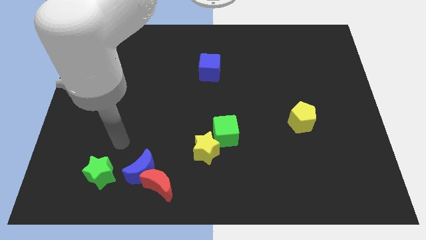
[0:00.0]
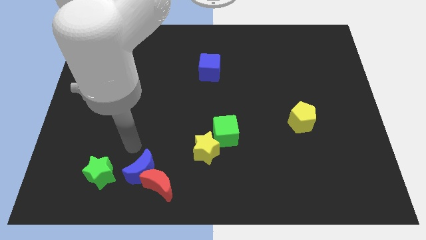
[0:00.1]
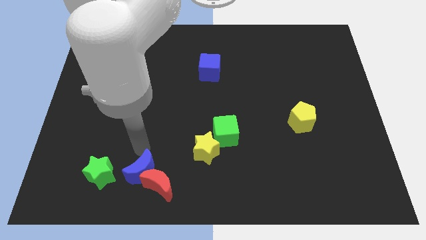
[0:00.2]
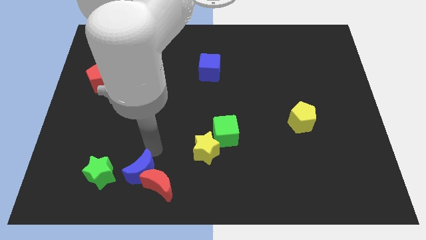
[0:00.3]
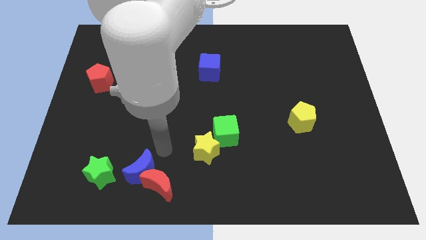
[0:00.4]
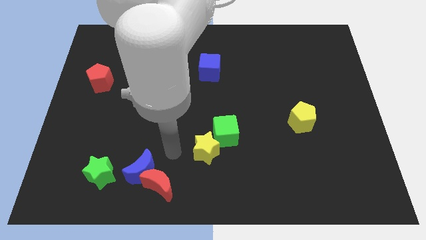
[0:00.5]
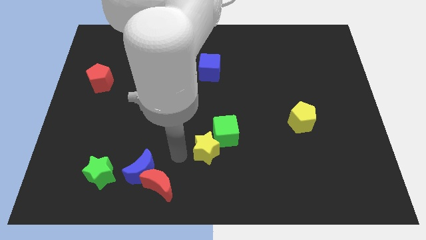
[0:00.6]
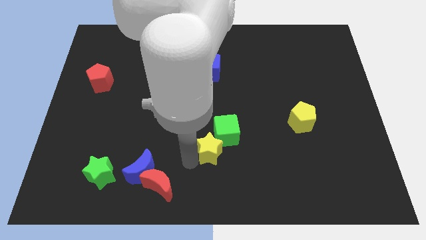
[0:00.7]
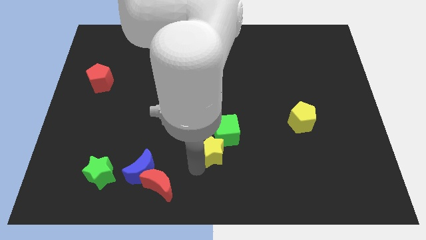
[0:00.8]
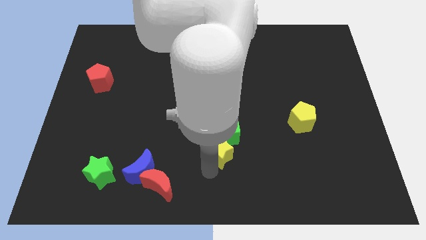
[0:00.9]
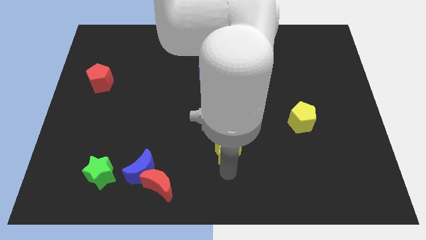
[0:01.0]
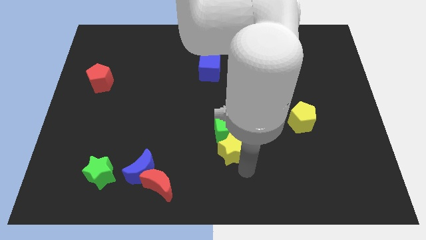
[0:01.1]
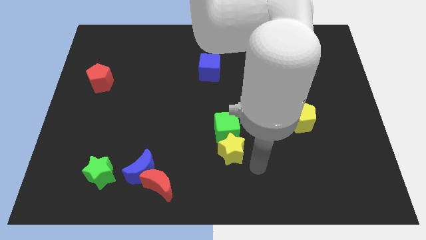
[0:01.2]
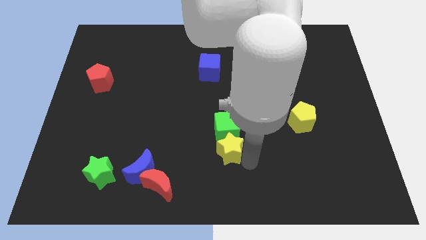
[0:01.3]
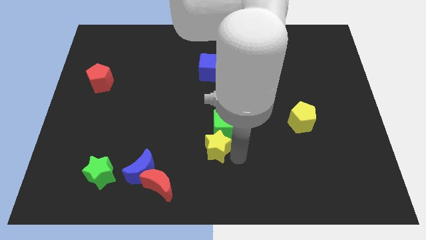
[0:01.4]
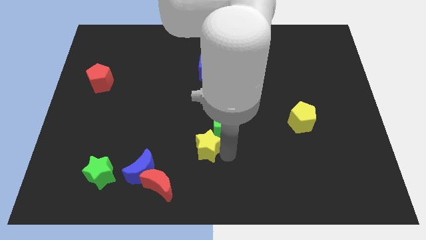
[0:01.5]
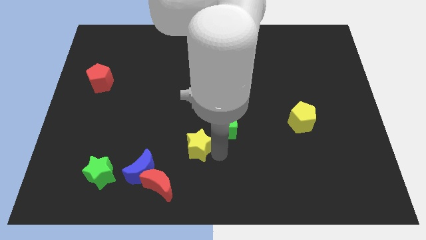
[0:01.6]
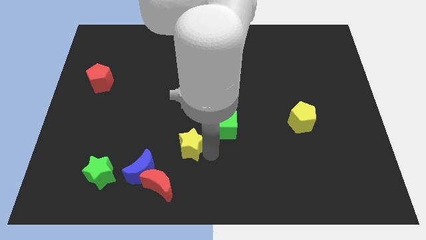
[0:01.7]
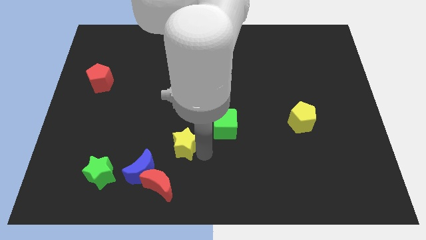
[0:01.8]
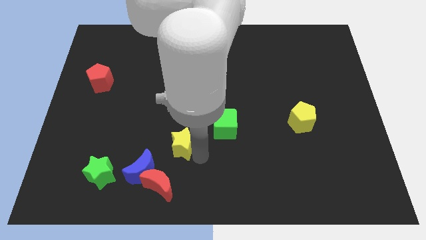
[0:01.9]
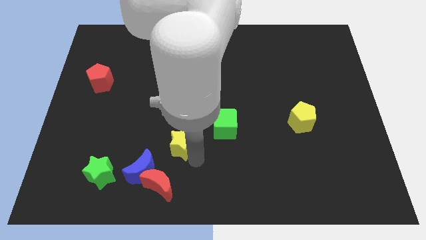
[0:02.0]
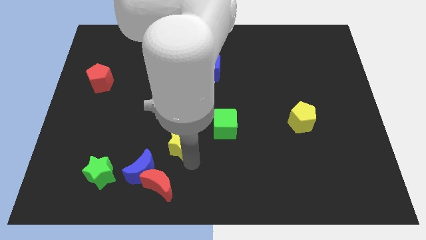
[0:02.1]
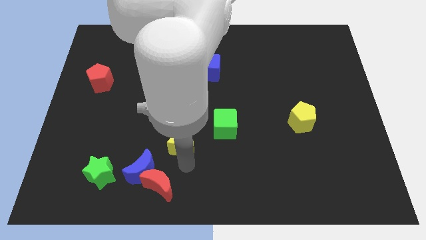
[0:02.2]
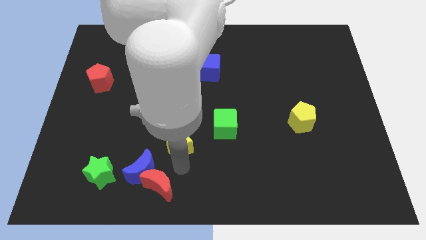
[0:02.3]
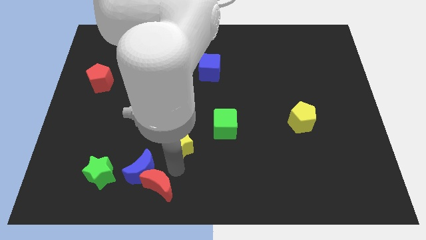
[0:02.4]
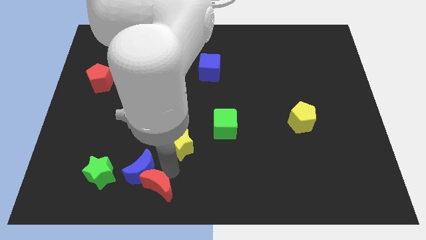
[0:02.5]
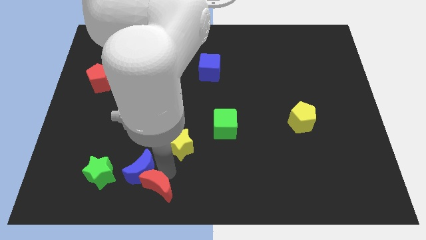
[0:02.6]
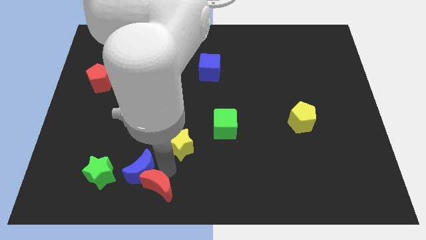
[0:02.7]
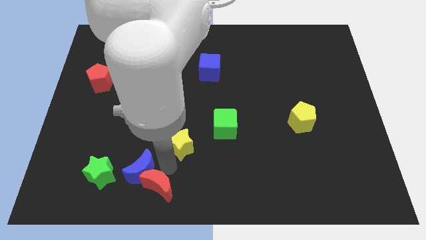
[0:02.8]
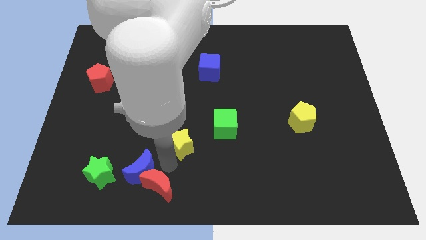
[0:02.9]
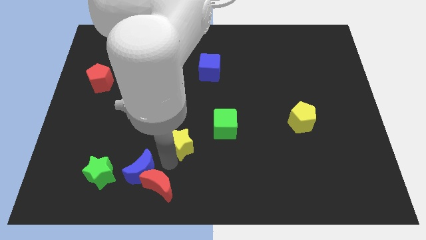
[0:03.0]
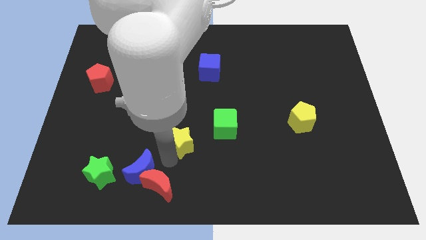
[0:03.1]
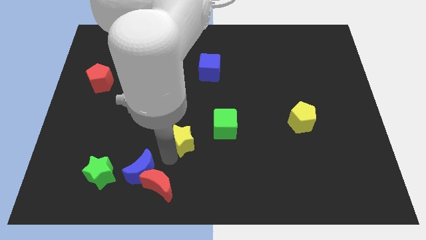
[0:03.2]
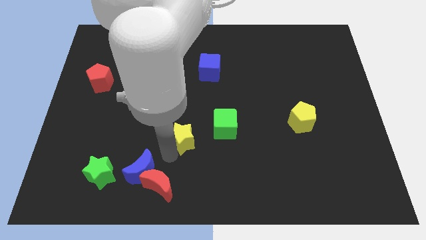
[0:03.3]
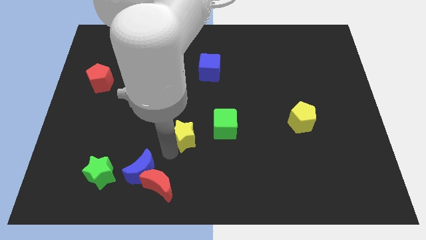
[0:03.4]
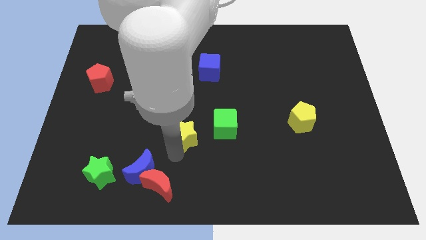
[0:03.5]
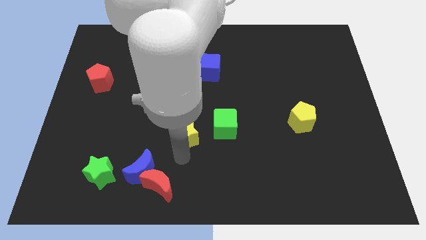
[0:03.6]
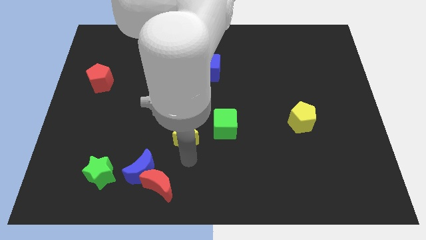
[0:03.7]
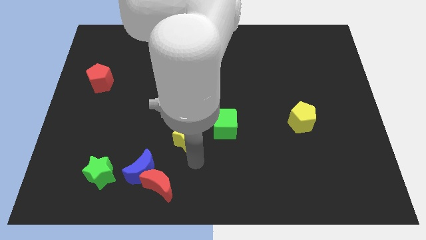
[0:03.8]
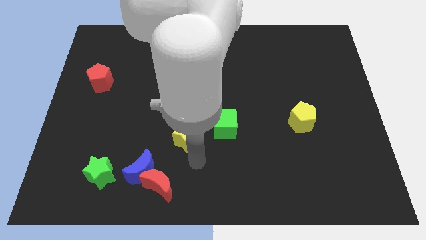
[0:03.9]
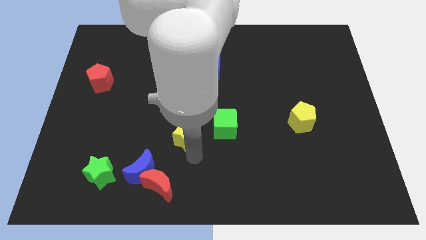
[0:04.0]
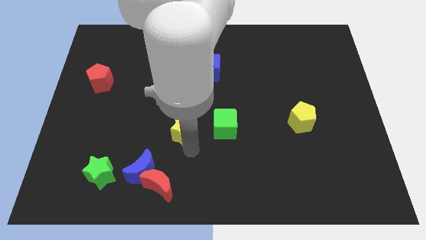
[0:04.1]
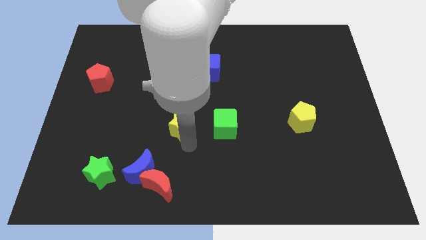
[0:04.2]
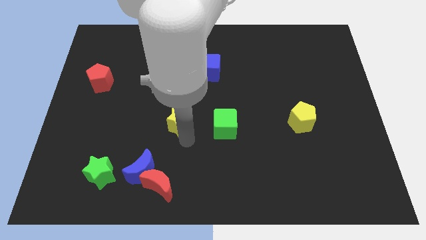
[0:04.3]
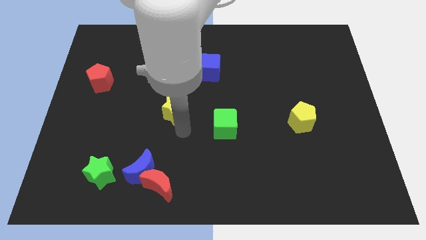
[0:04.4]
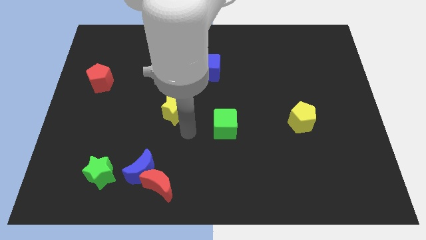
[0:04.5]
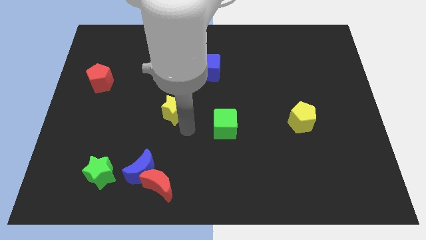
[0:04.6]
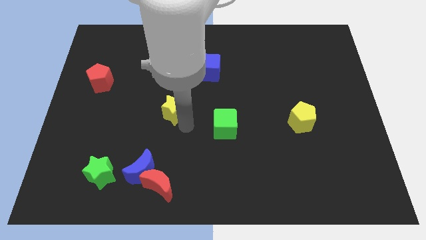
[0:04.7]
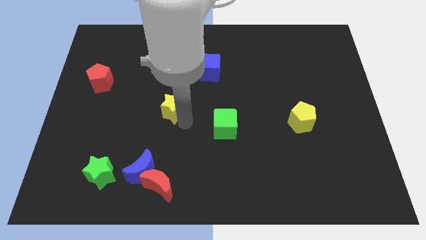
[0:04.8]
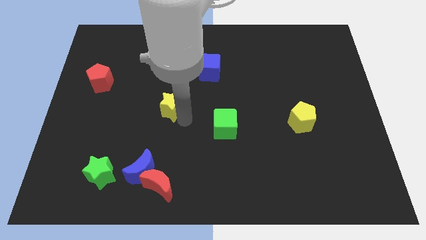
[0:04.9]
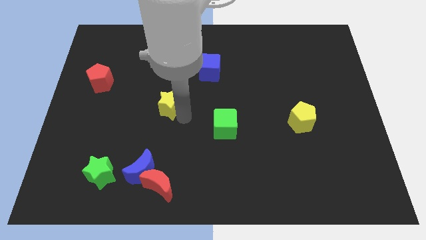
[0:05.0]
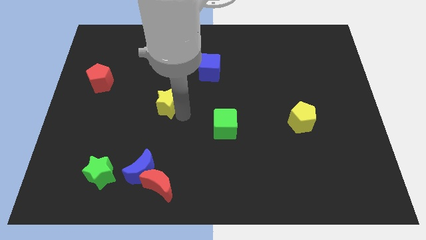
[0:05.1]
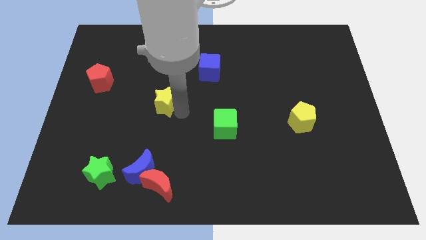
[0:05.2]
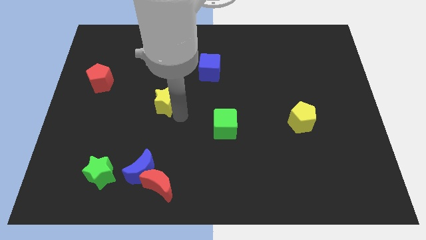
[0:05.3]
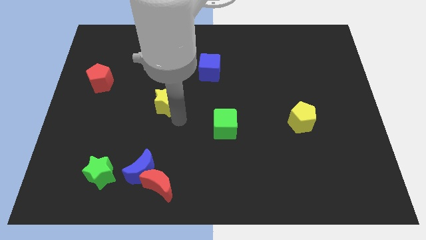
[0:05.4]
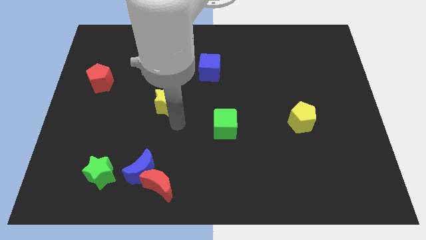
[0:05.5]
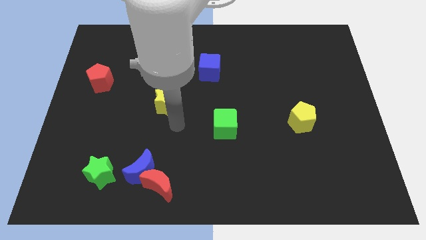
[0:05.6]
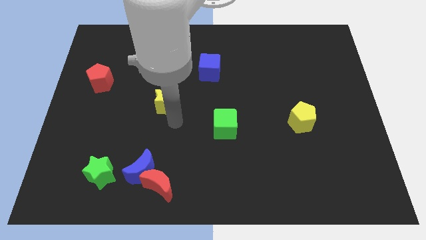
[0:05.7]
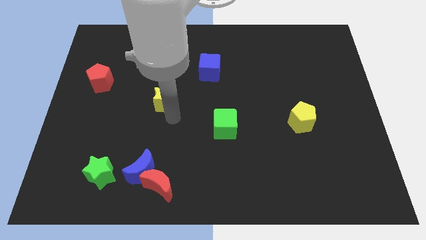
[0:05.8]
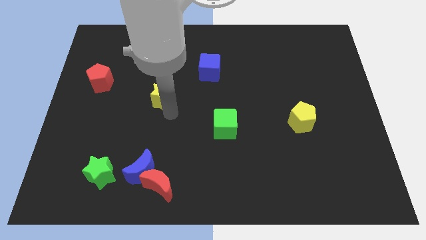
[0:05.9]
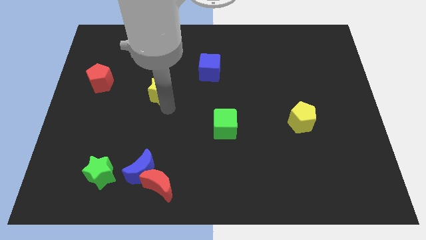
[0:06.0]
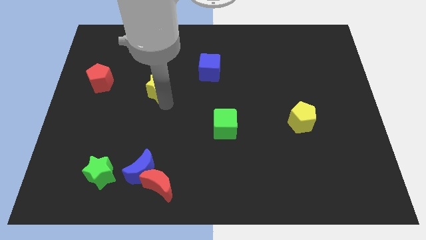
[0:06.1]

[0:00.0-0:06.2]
push the yellow star diagonally up and left

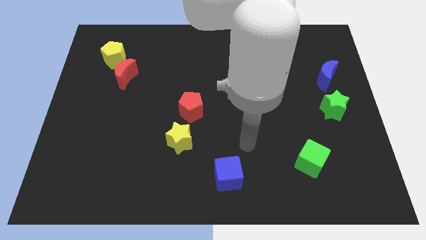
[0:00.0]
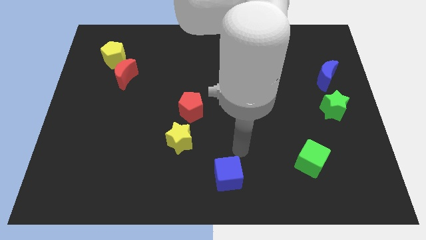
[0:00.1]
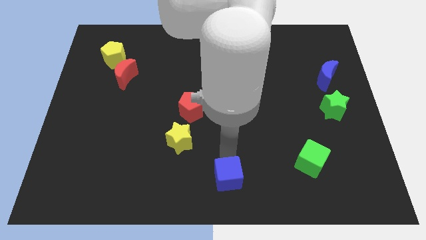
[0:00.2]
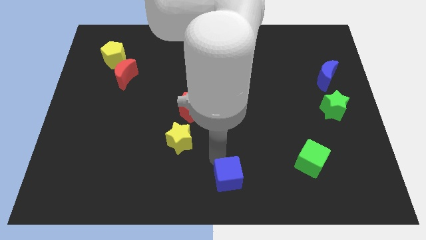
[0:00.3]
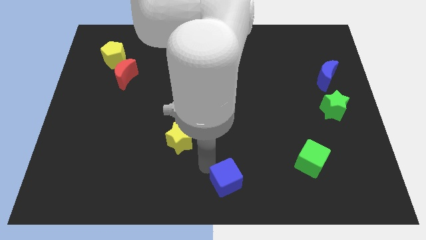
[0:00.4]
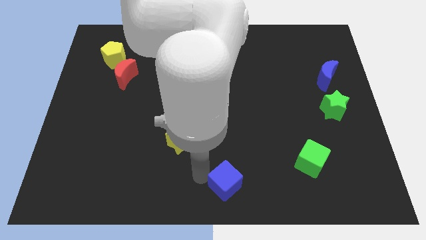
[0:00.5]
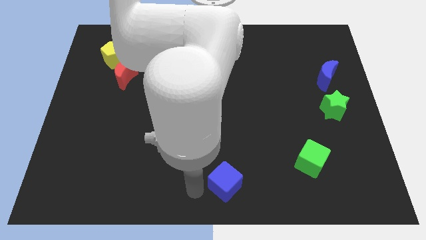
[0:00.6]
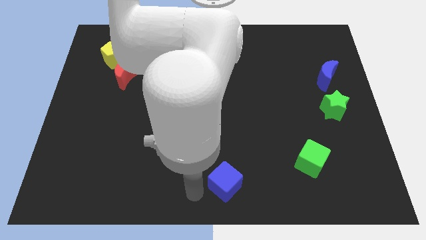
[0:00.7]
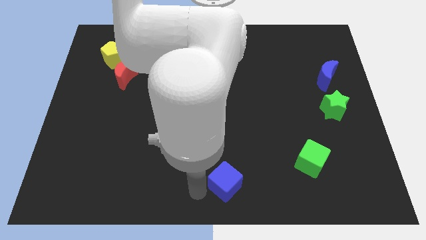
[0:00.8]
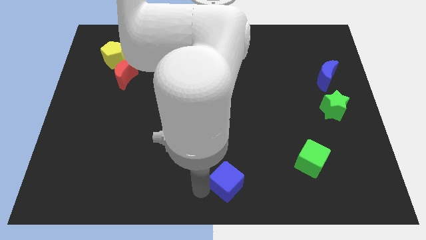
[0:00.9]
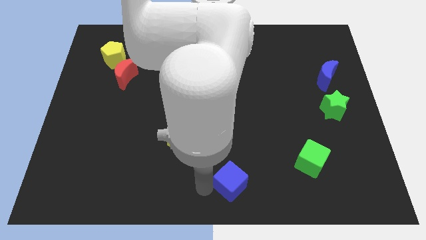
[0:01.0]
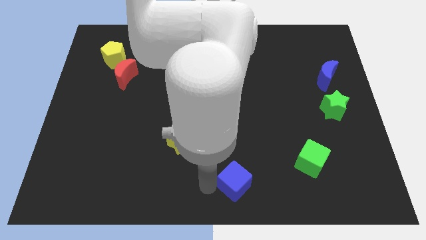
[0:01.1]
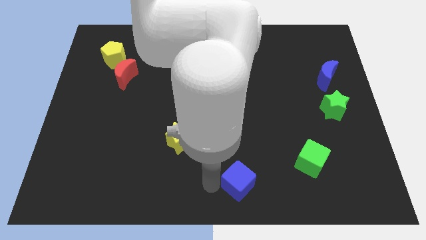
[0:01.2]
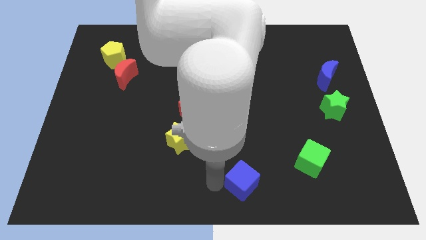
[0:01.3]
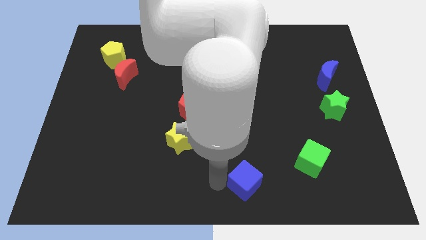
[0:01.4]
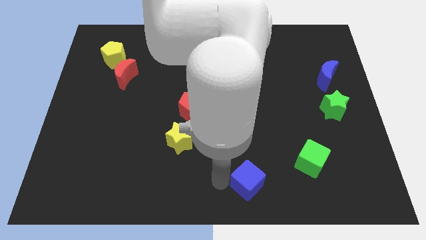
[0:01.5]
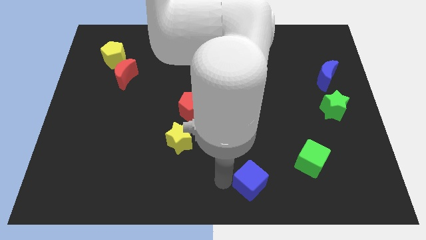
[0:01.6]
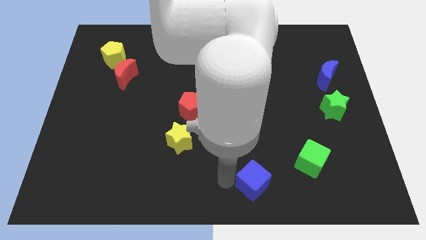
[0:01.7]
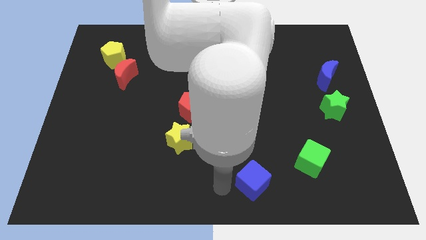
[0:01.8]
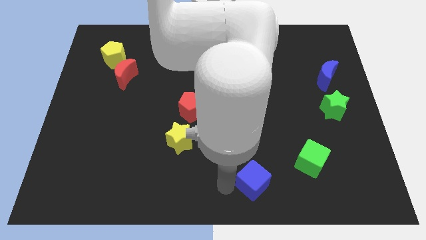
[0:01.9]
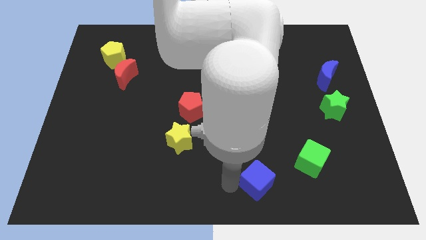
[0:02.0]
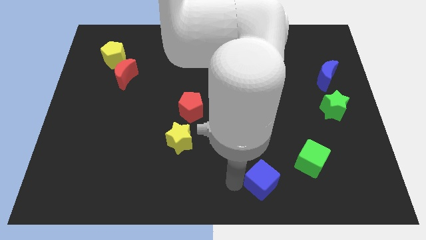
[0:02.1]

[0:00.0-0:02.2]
push the blue cube right somewhat
